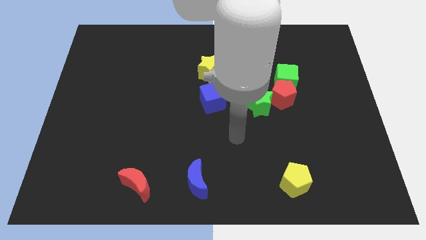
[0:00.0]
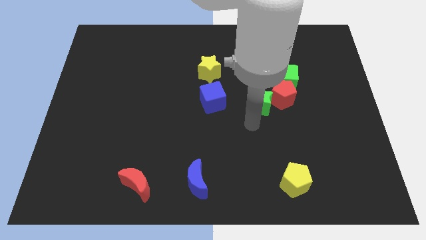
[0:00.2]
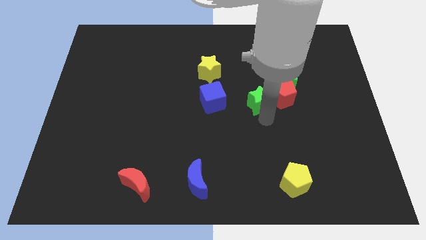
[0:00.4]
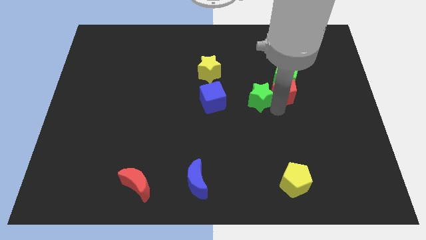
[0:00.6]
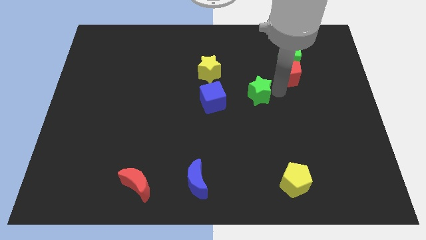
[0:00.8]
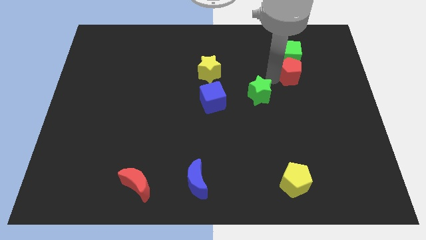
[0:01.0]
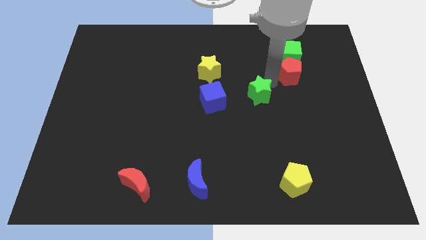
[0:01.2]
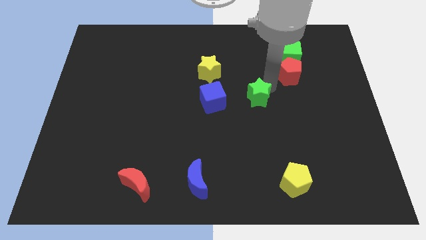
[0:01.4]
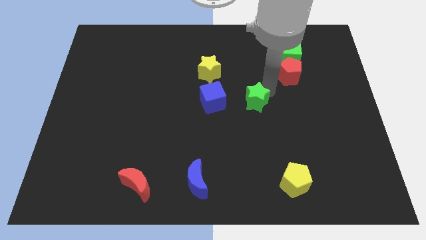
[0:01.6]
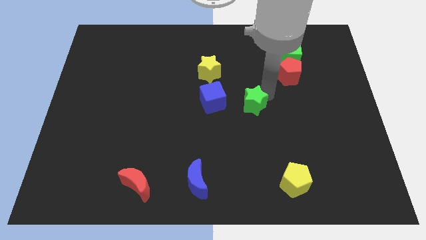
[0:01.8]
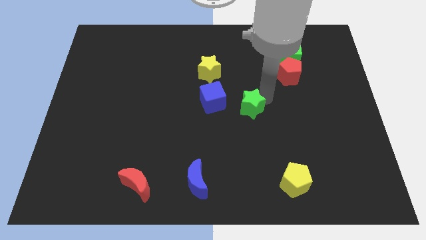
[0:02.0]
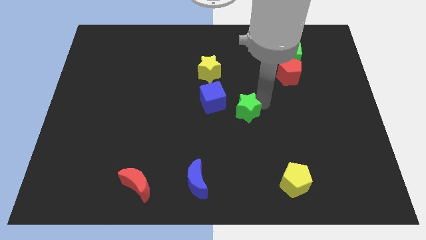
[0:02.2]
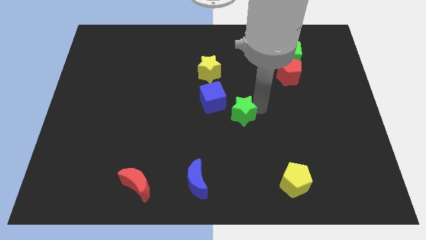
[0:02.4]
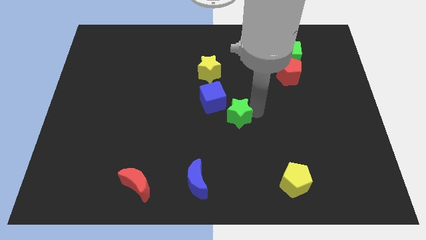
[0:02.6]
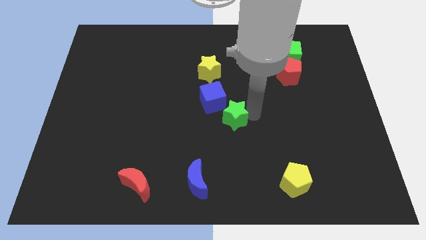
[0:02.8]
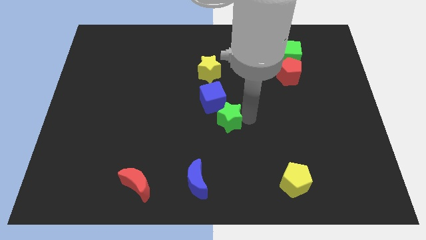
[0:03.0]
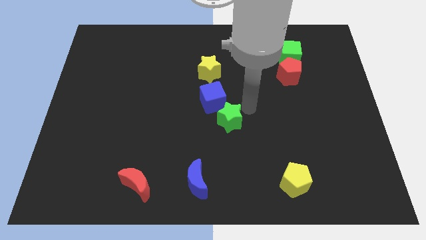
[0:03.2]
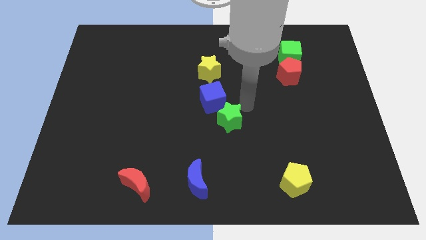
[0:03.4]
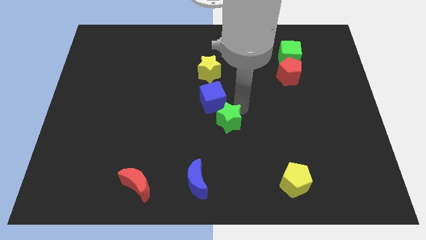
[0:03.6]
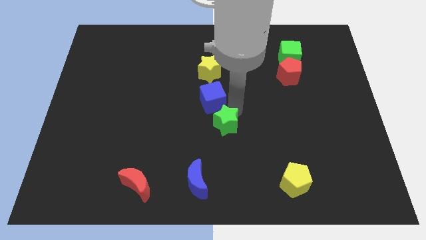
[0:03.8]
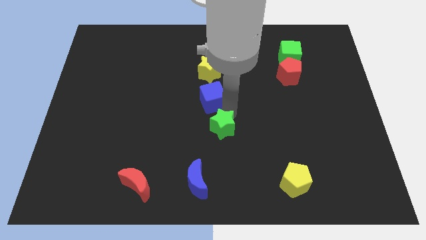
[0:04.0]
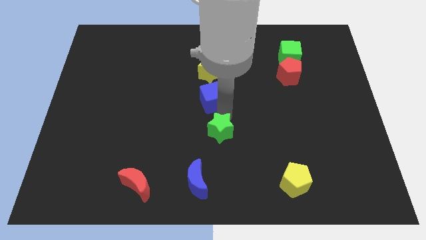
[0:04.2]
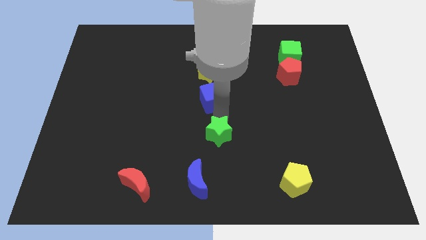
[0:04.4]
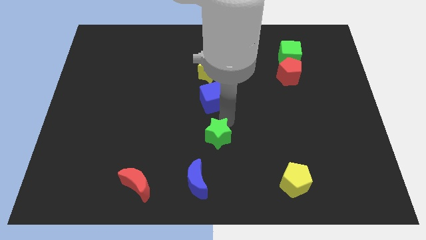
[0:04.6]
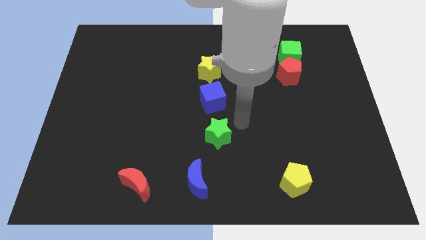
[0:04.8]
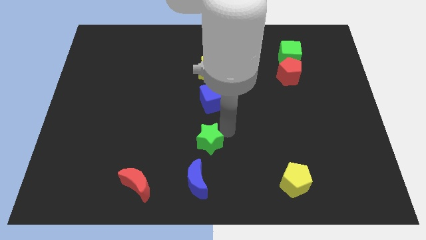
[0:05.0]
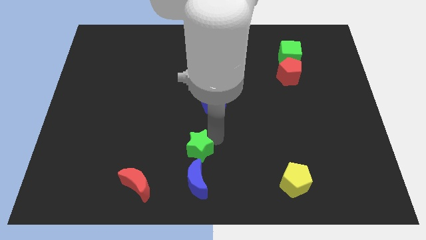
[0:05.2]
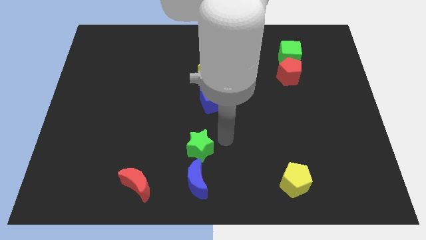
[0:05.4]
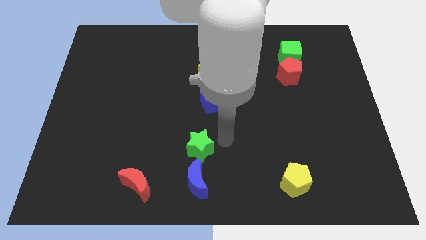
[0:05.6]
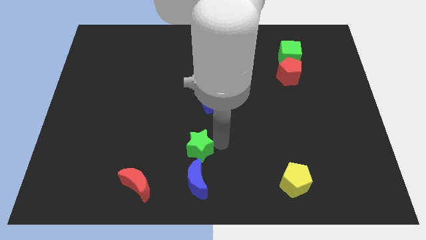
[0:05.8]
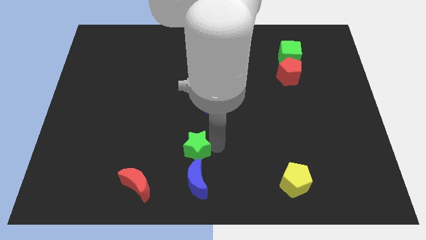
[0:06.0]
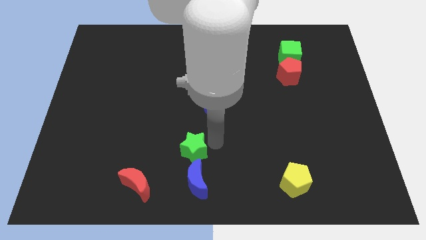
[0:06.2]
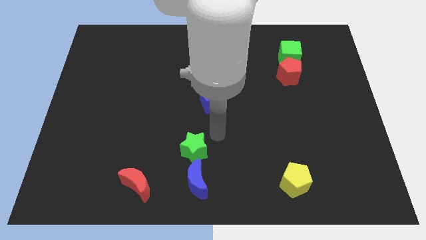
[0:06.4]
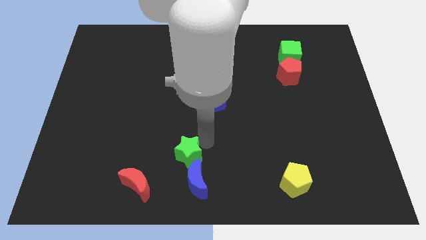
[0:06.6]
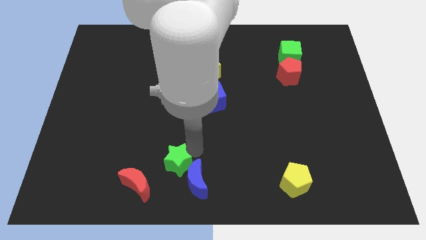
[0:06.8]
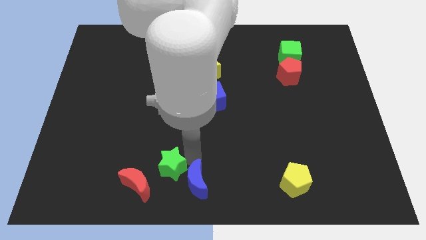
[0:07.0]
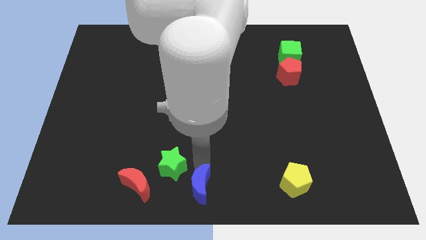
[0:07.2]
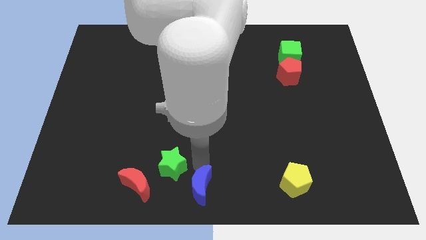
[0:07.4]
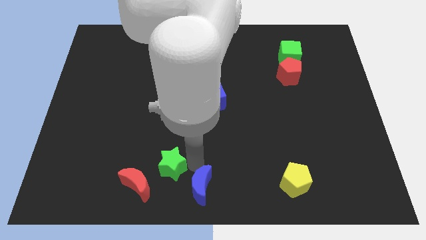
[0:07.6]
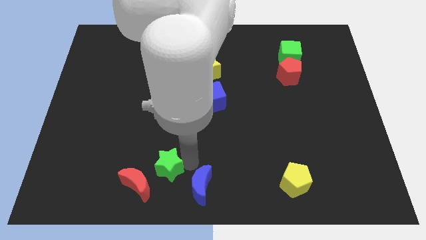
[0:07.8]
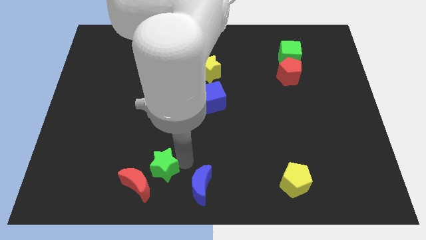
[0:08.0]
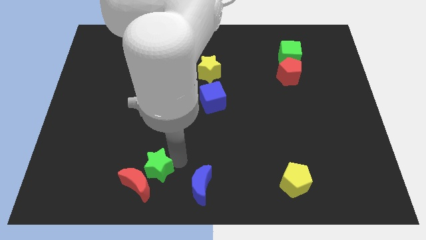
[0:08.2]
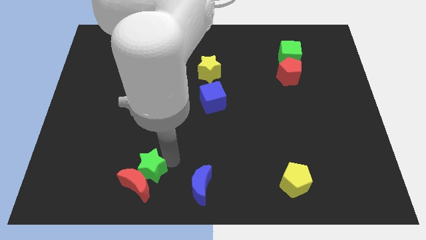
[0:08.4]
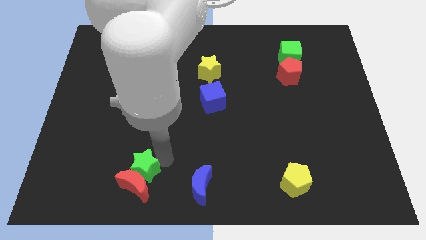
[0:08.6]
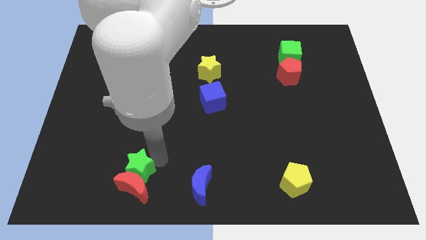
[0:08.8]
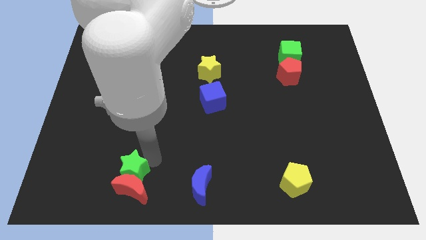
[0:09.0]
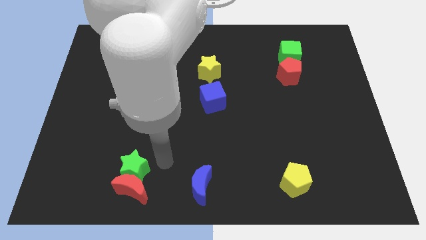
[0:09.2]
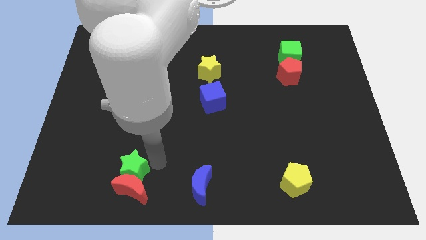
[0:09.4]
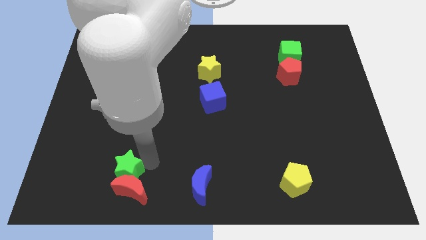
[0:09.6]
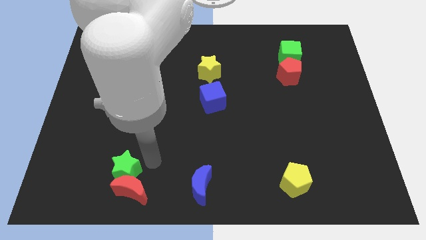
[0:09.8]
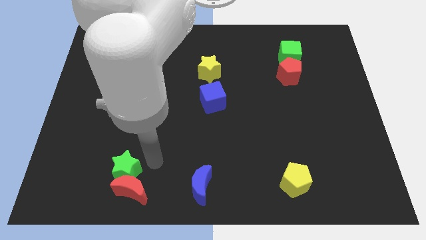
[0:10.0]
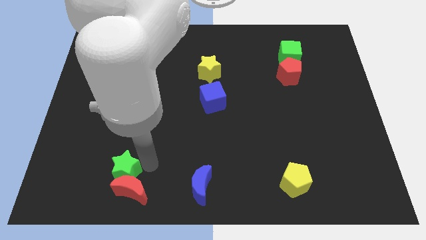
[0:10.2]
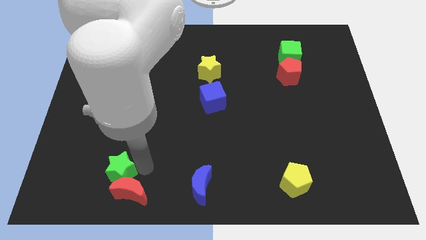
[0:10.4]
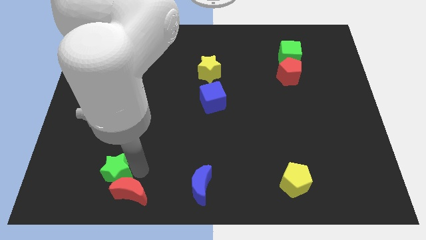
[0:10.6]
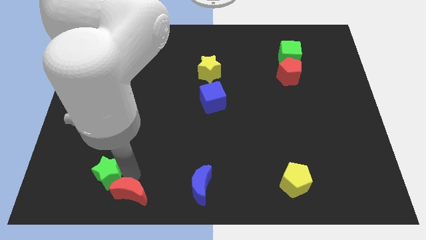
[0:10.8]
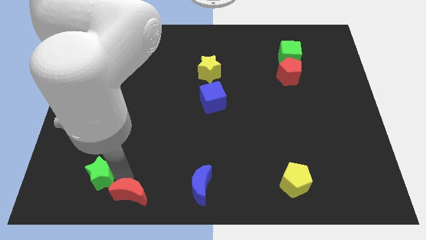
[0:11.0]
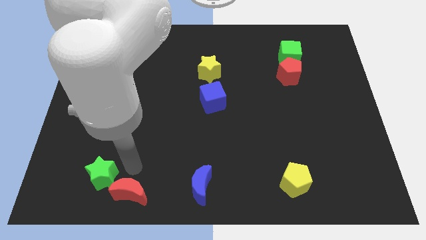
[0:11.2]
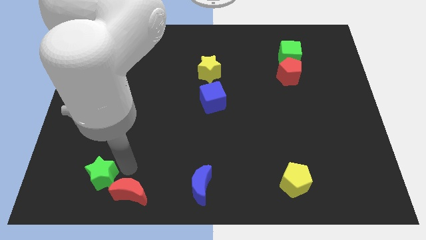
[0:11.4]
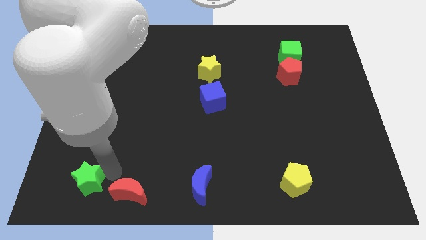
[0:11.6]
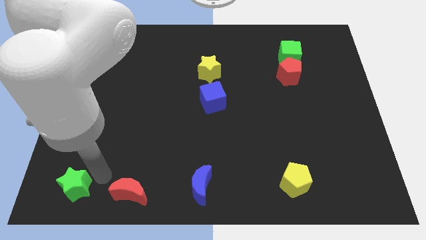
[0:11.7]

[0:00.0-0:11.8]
push the green star to the lower left corner
